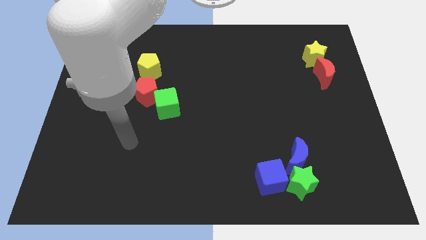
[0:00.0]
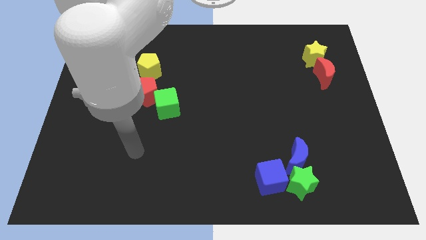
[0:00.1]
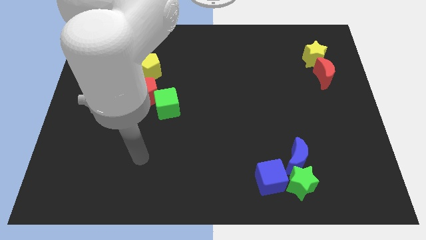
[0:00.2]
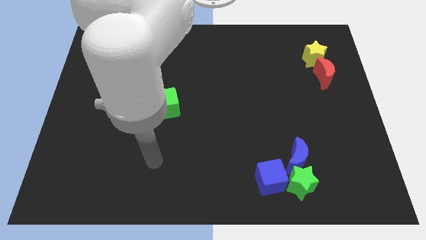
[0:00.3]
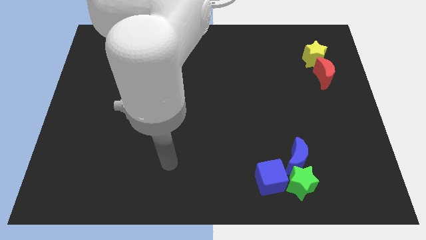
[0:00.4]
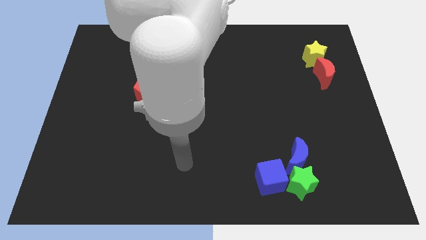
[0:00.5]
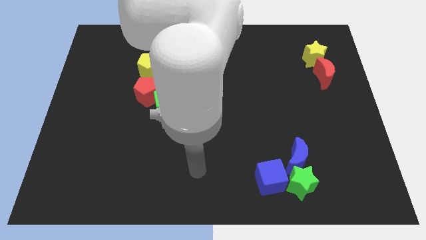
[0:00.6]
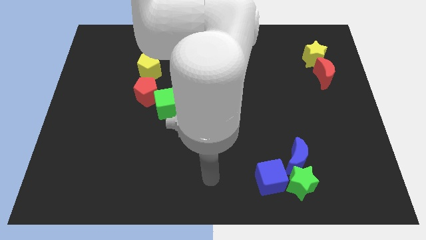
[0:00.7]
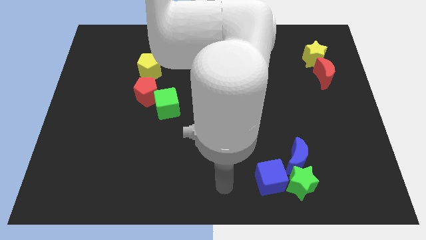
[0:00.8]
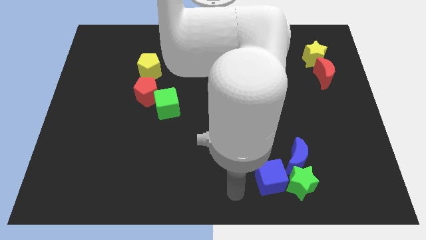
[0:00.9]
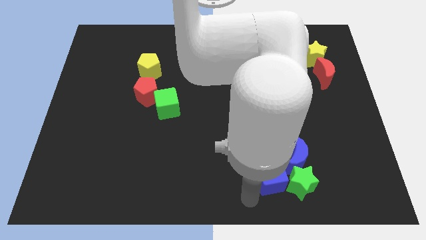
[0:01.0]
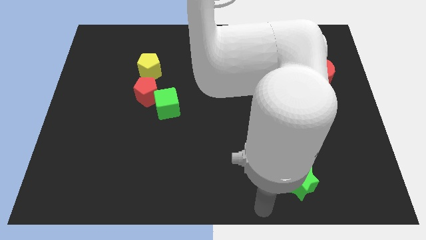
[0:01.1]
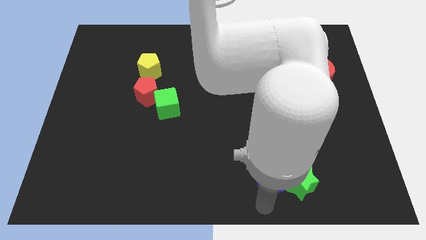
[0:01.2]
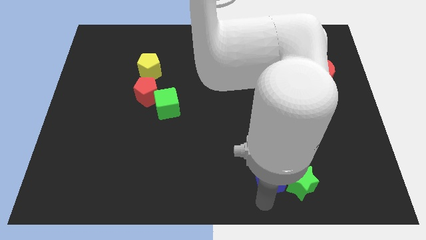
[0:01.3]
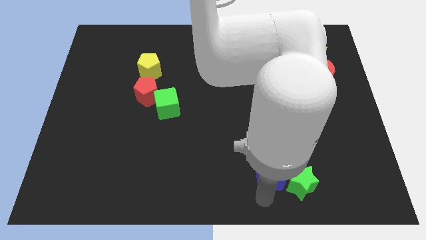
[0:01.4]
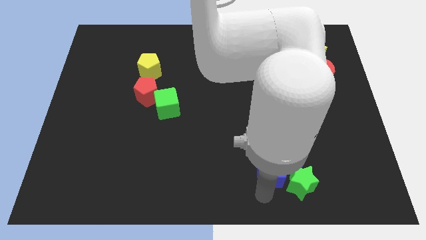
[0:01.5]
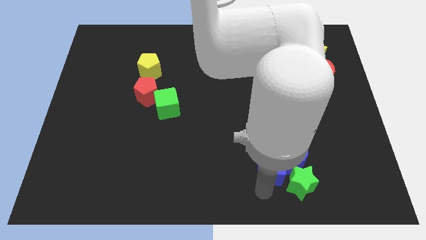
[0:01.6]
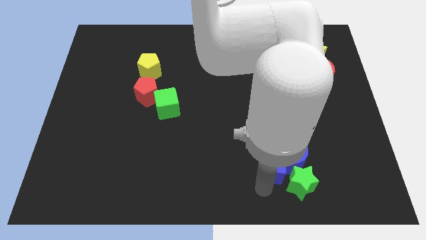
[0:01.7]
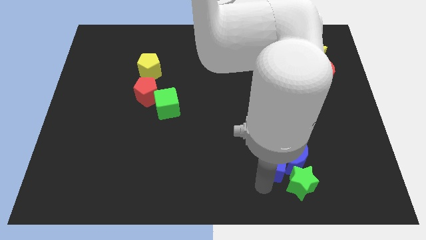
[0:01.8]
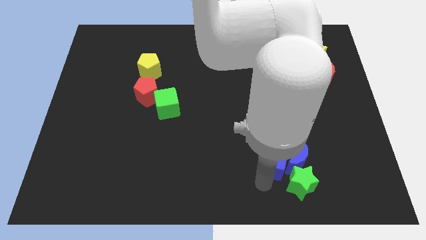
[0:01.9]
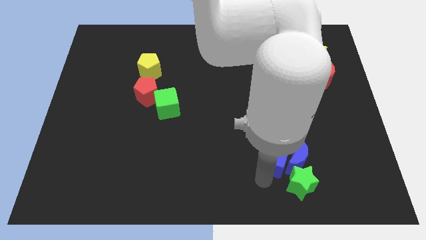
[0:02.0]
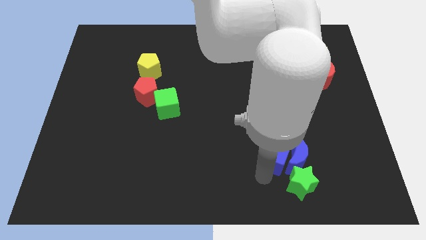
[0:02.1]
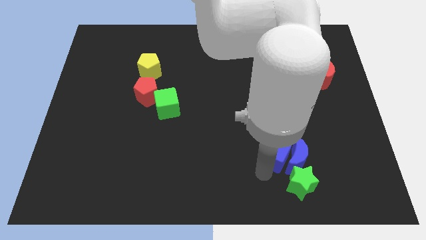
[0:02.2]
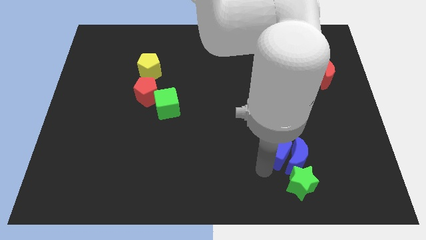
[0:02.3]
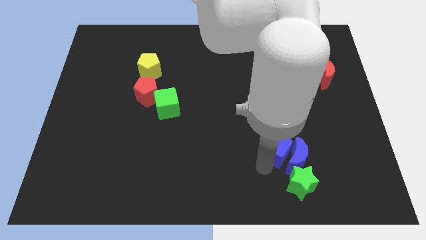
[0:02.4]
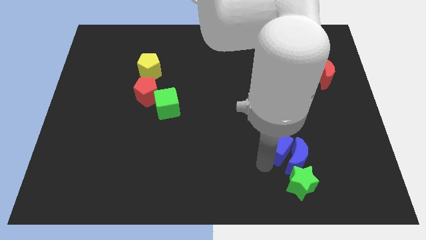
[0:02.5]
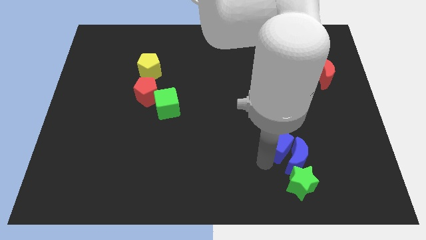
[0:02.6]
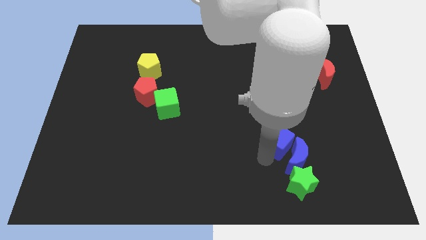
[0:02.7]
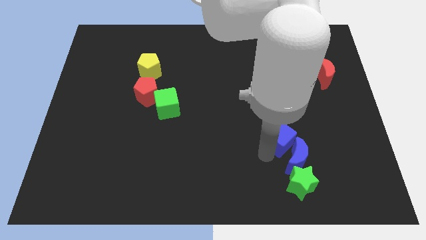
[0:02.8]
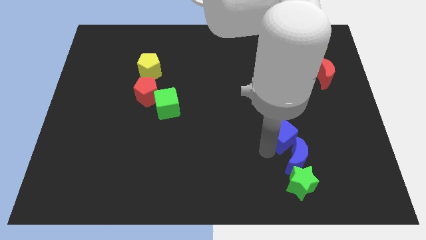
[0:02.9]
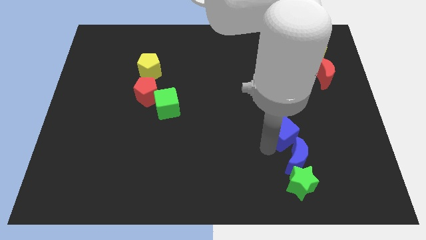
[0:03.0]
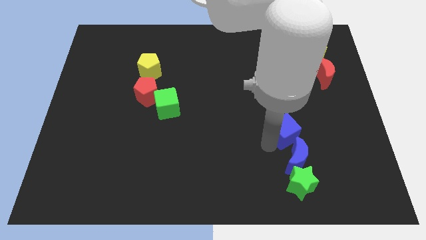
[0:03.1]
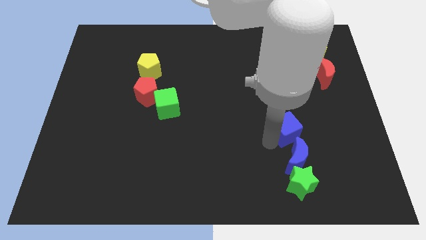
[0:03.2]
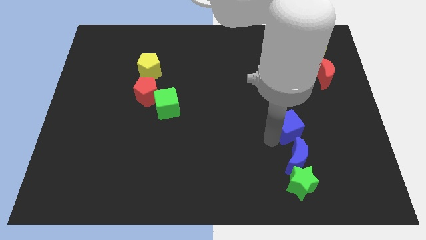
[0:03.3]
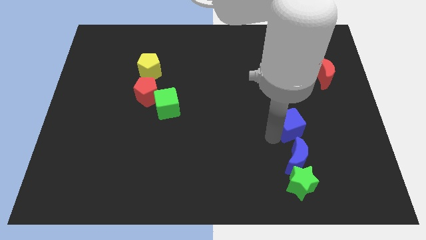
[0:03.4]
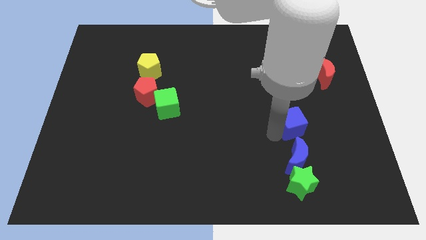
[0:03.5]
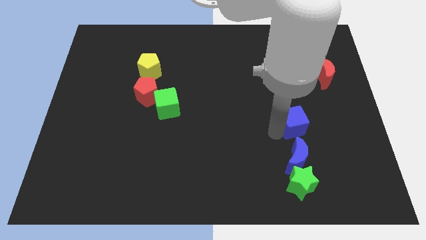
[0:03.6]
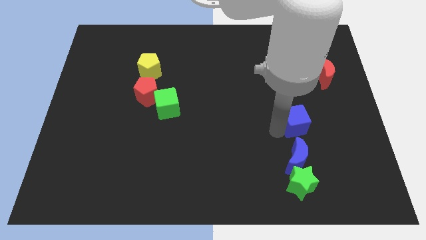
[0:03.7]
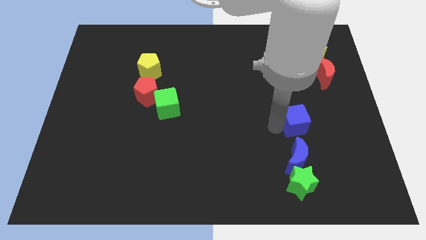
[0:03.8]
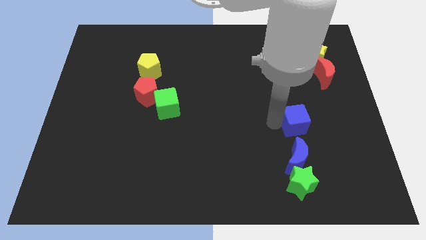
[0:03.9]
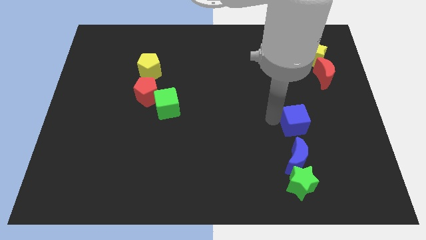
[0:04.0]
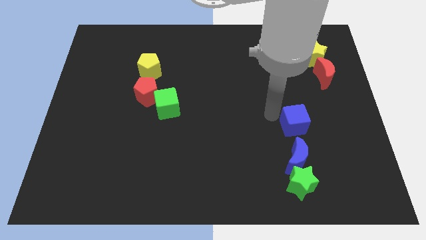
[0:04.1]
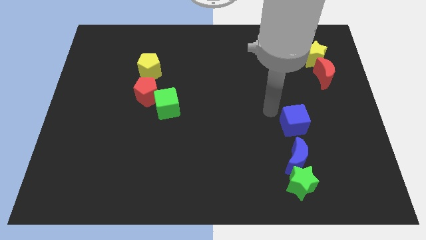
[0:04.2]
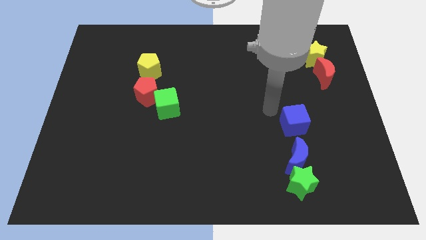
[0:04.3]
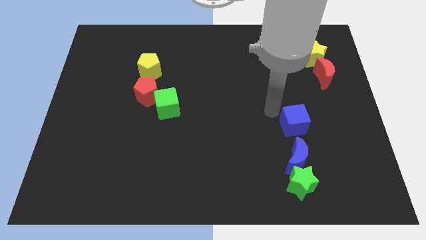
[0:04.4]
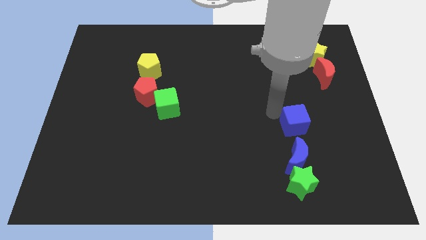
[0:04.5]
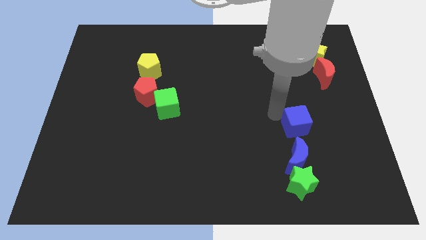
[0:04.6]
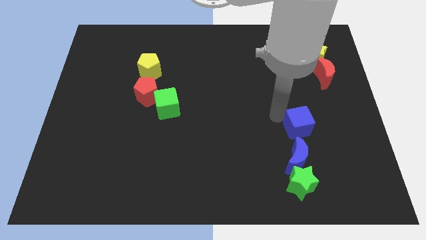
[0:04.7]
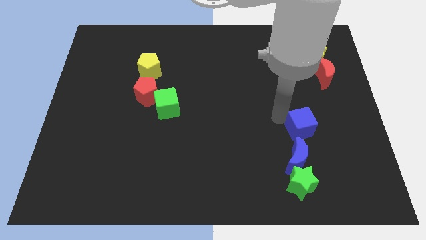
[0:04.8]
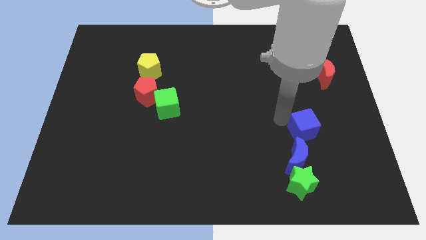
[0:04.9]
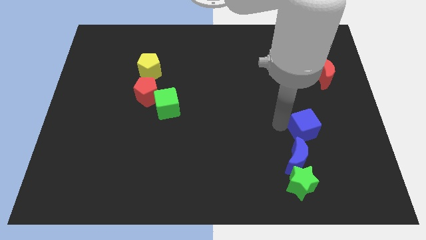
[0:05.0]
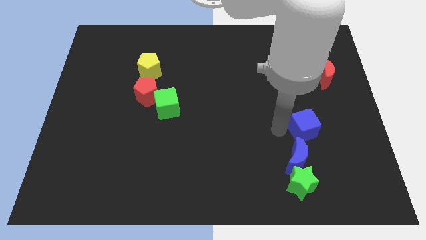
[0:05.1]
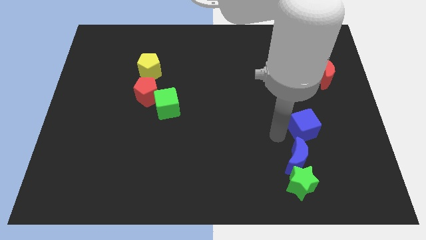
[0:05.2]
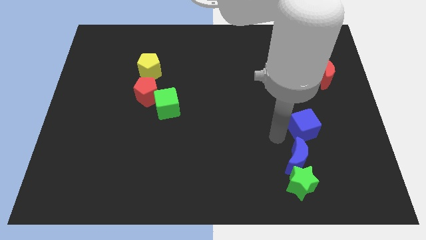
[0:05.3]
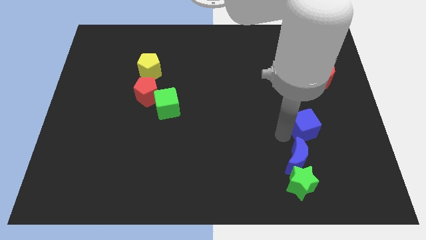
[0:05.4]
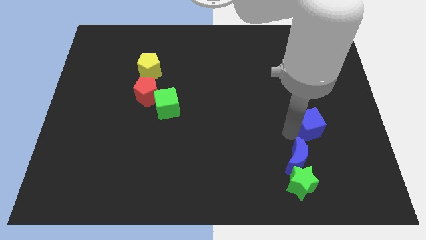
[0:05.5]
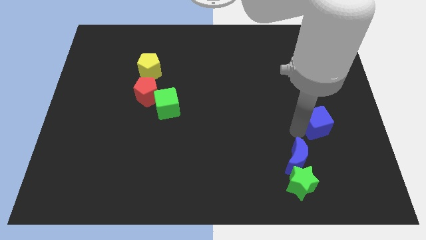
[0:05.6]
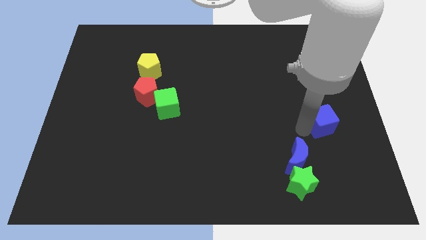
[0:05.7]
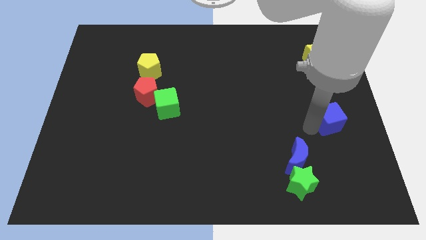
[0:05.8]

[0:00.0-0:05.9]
push the blue cube to the right side
